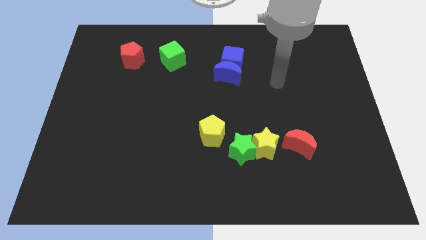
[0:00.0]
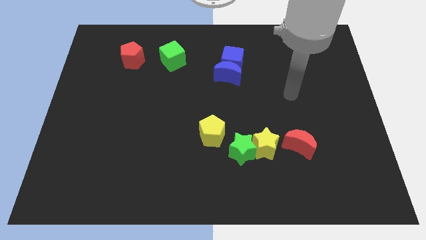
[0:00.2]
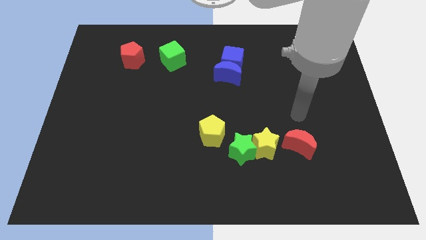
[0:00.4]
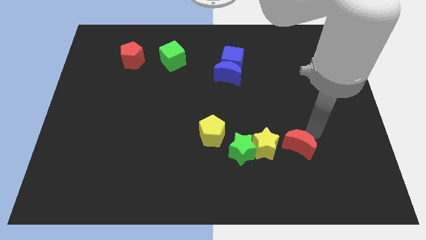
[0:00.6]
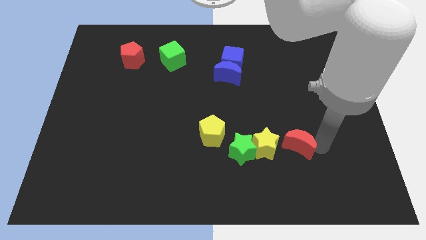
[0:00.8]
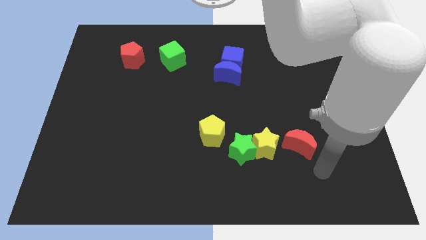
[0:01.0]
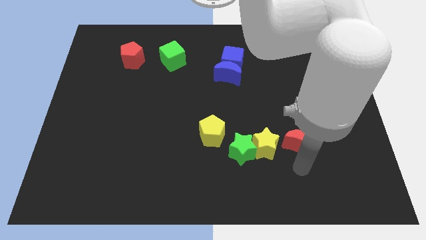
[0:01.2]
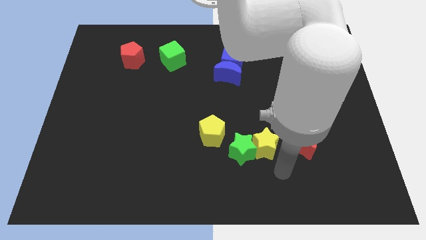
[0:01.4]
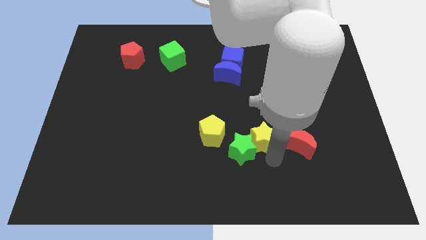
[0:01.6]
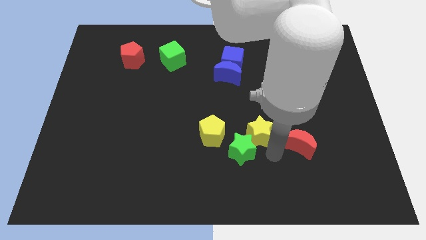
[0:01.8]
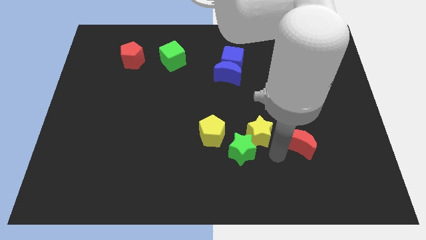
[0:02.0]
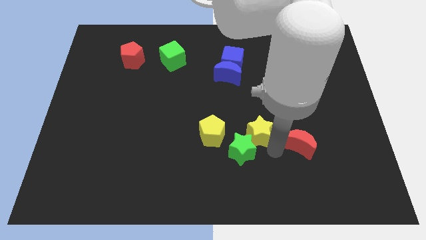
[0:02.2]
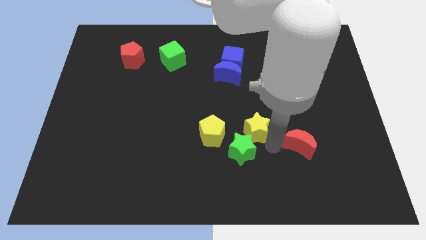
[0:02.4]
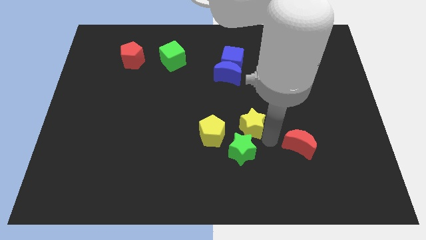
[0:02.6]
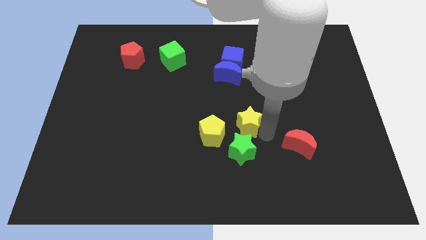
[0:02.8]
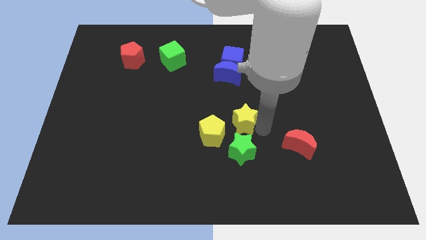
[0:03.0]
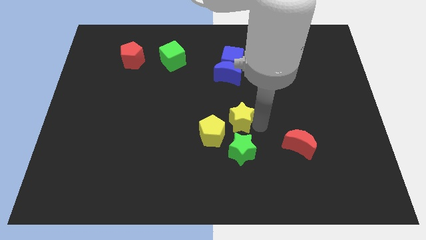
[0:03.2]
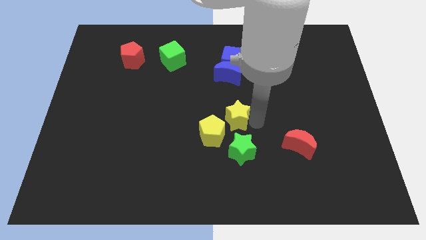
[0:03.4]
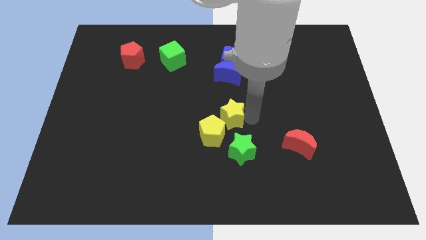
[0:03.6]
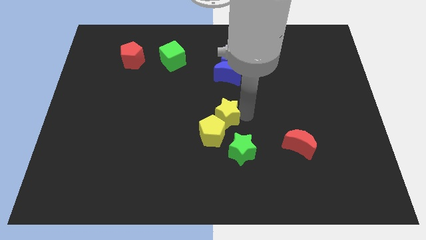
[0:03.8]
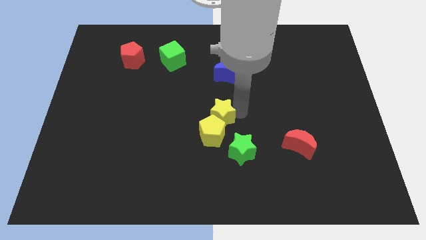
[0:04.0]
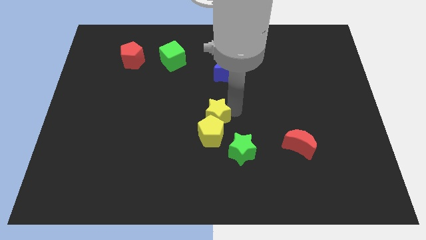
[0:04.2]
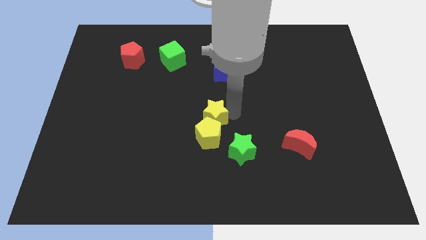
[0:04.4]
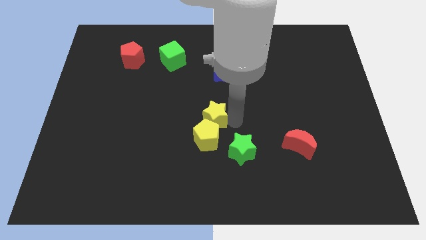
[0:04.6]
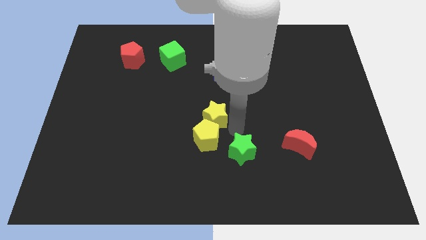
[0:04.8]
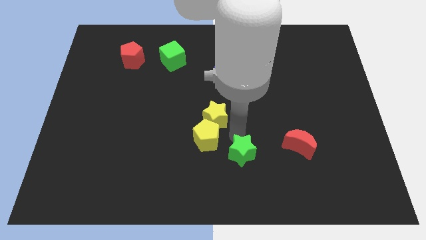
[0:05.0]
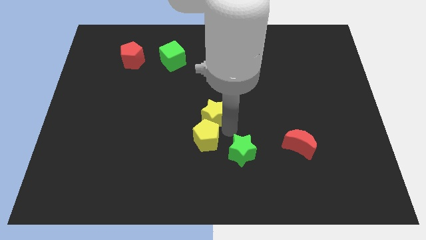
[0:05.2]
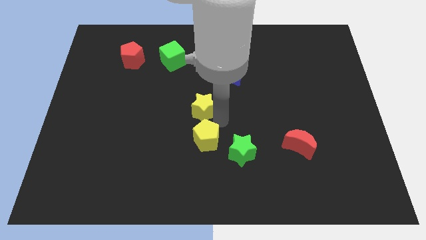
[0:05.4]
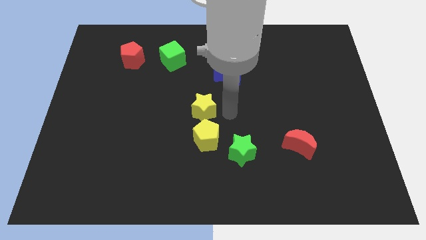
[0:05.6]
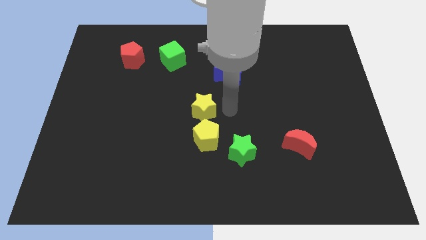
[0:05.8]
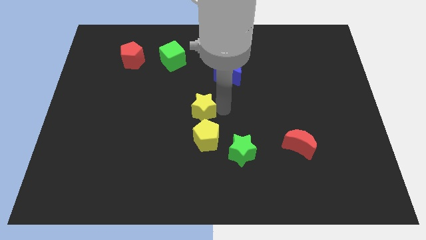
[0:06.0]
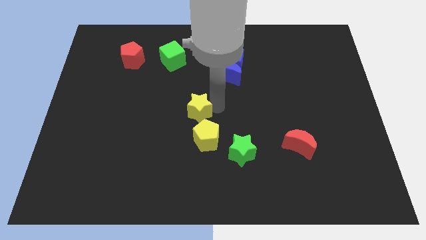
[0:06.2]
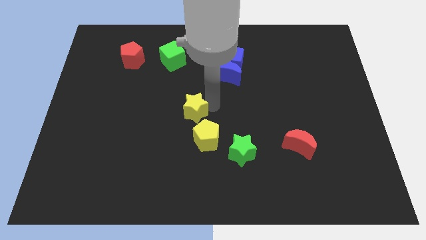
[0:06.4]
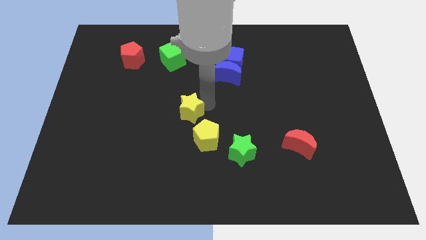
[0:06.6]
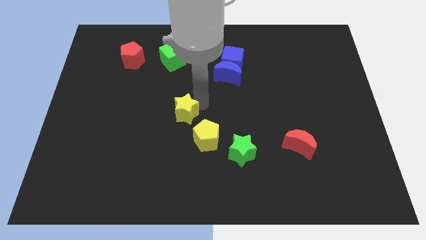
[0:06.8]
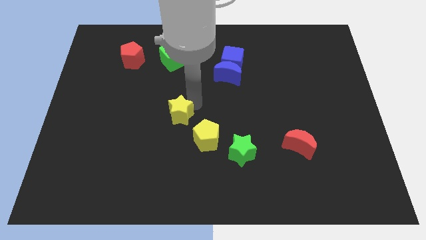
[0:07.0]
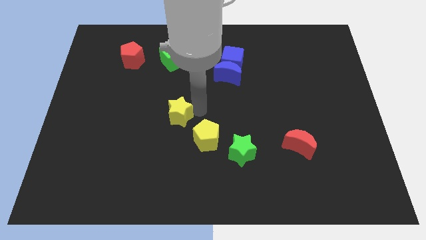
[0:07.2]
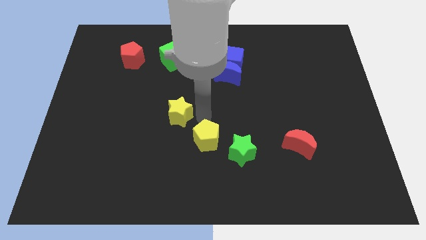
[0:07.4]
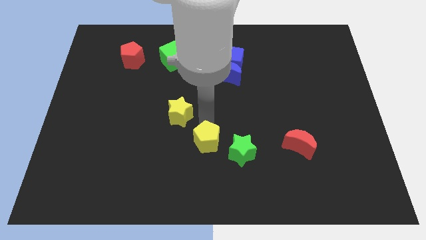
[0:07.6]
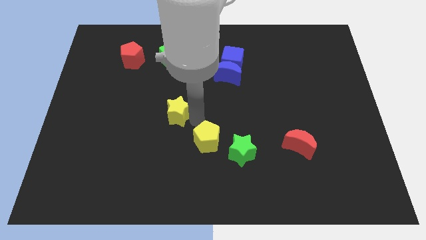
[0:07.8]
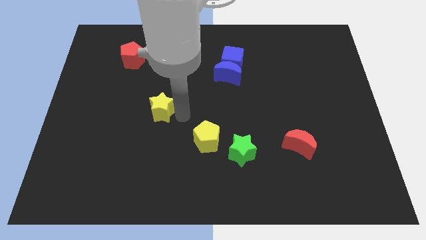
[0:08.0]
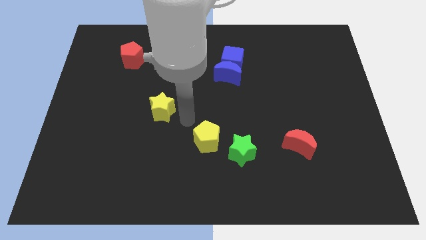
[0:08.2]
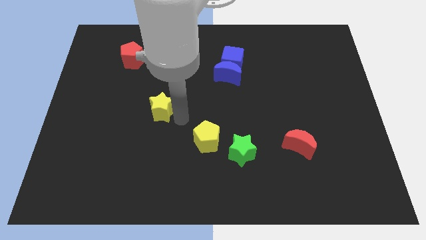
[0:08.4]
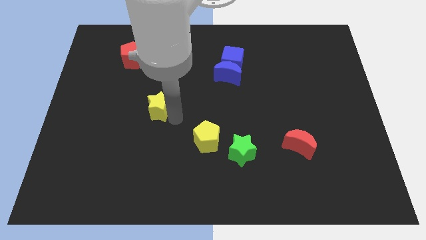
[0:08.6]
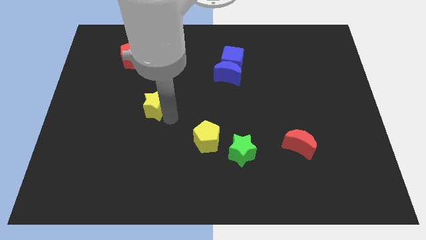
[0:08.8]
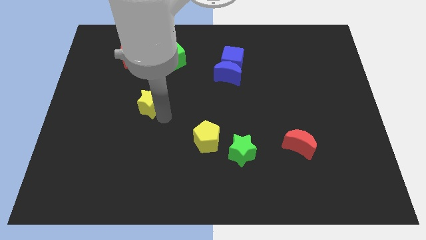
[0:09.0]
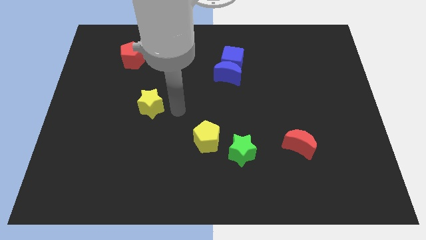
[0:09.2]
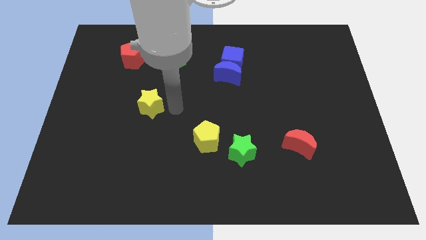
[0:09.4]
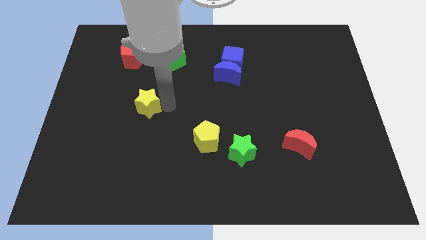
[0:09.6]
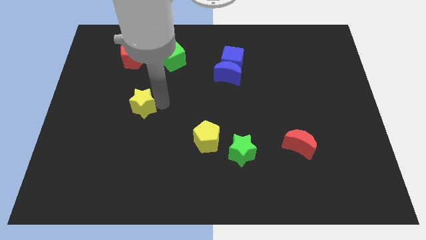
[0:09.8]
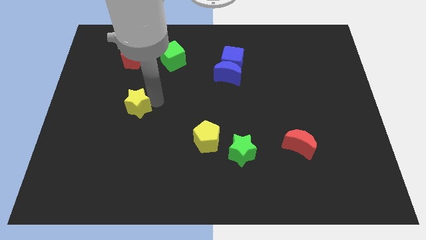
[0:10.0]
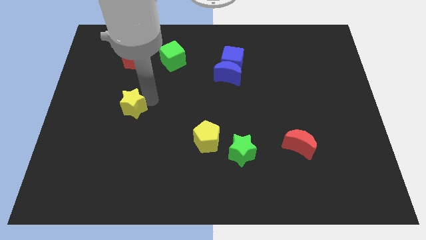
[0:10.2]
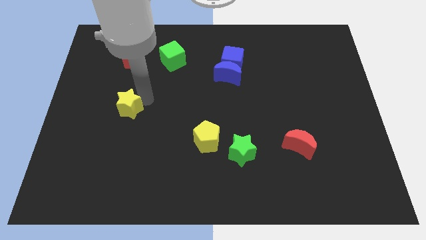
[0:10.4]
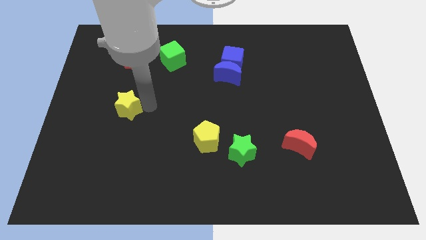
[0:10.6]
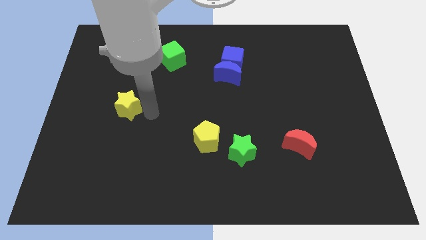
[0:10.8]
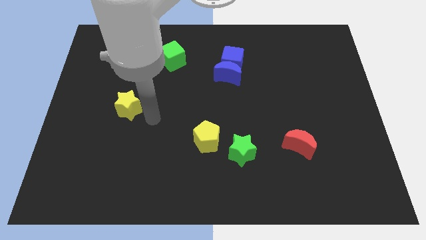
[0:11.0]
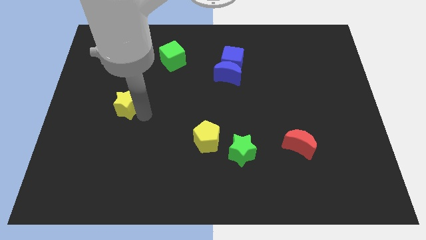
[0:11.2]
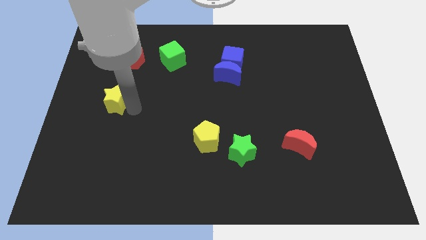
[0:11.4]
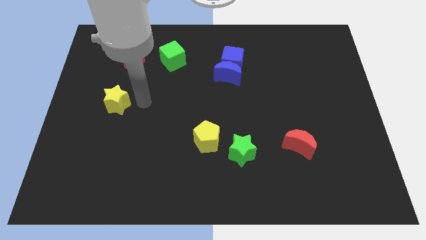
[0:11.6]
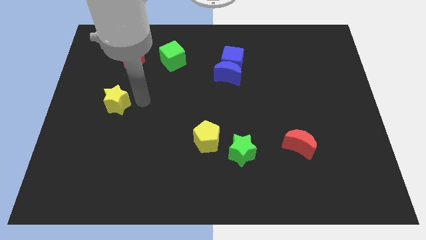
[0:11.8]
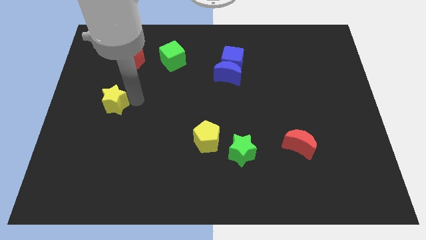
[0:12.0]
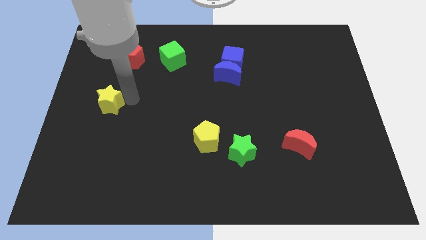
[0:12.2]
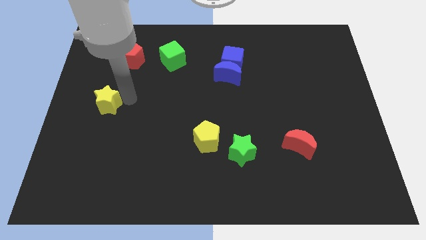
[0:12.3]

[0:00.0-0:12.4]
move the yellow star to the left side of the board
